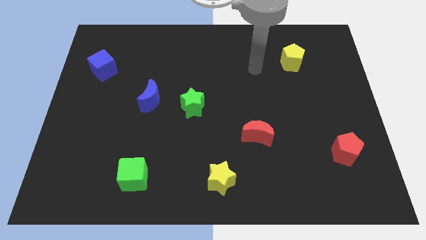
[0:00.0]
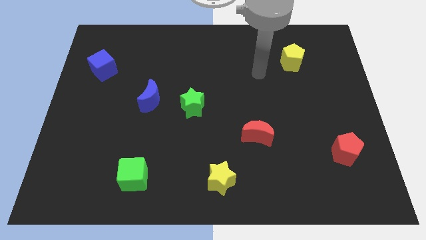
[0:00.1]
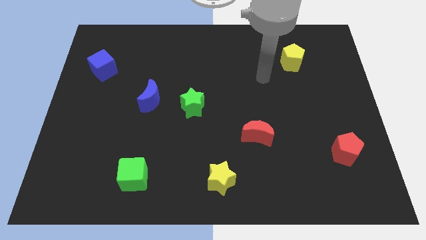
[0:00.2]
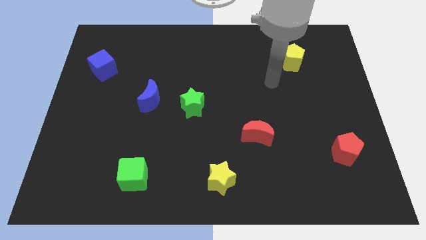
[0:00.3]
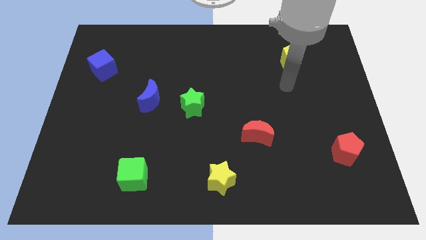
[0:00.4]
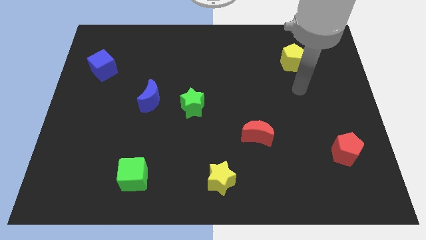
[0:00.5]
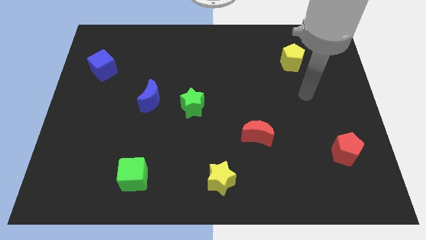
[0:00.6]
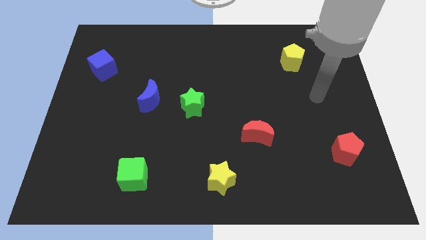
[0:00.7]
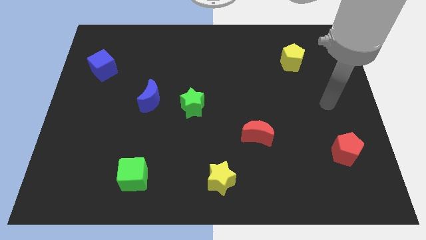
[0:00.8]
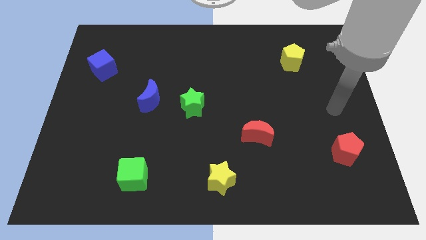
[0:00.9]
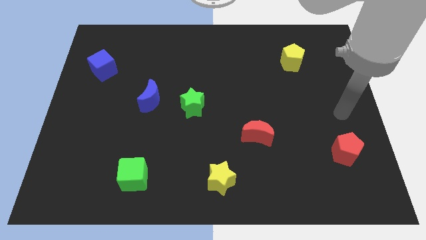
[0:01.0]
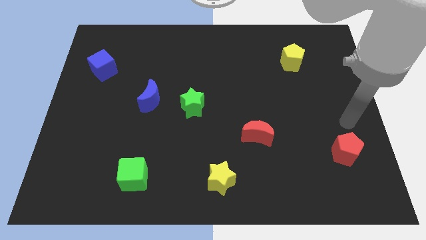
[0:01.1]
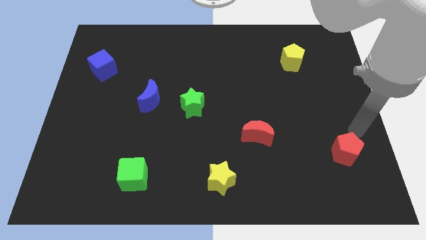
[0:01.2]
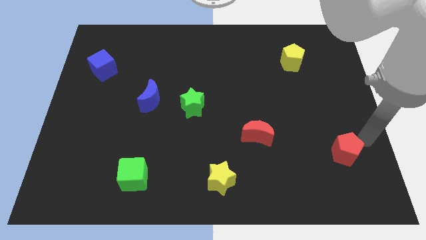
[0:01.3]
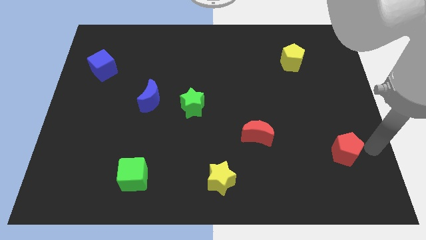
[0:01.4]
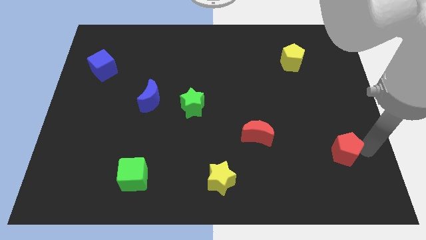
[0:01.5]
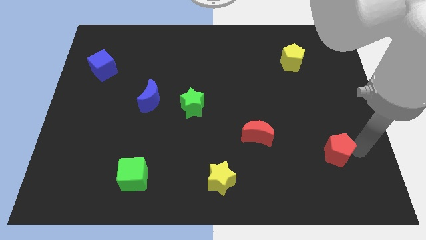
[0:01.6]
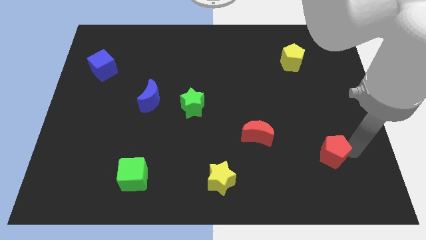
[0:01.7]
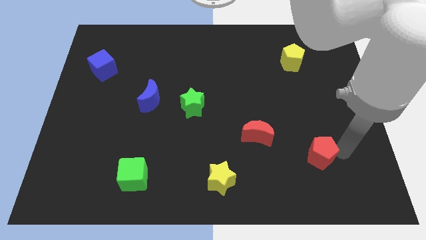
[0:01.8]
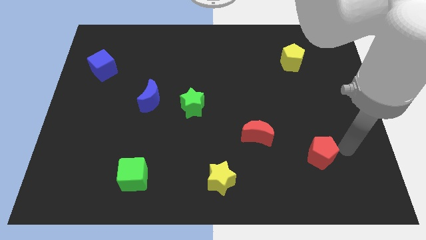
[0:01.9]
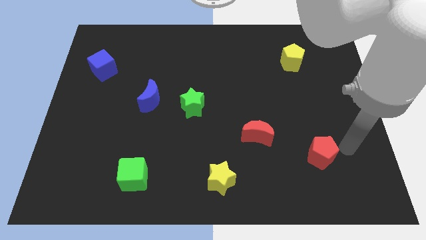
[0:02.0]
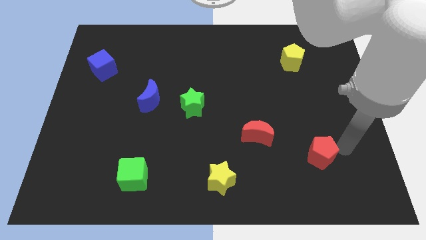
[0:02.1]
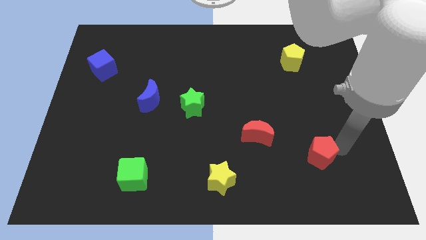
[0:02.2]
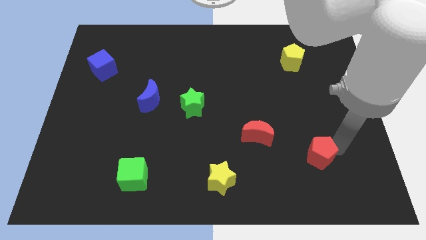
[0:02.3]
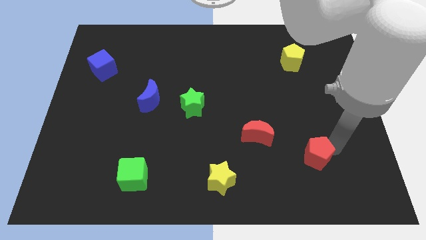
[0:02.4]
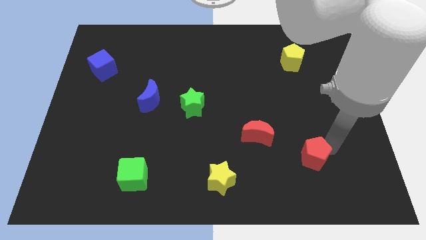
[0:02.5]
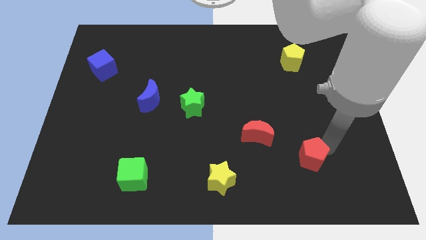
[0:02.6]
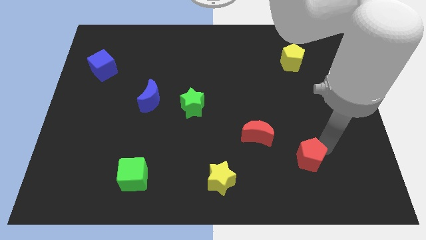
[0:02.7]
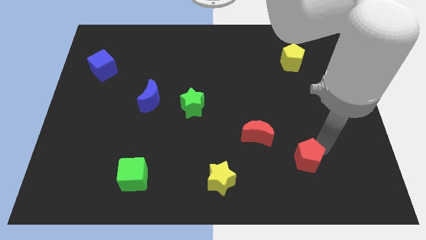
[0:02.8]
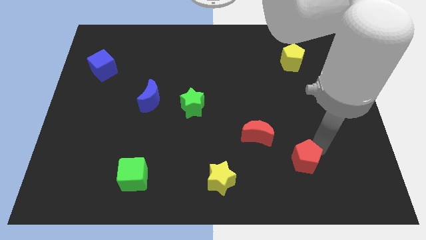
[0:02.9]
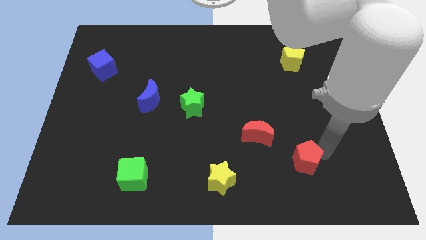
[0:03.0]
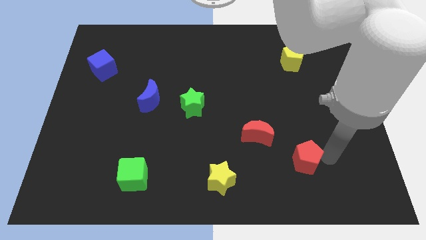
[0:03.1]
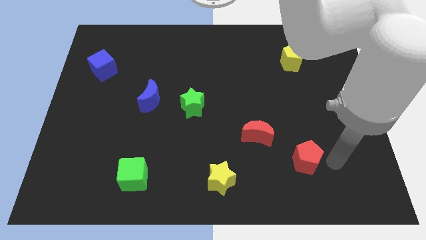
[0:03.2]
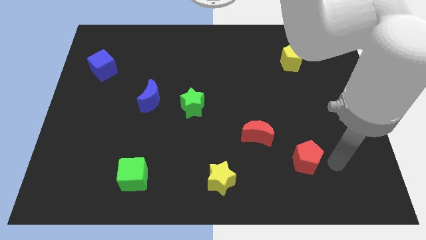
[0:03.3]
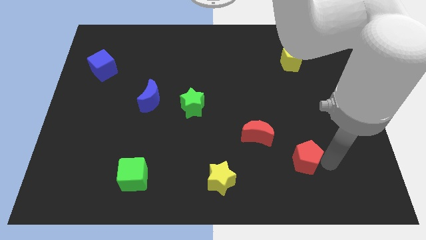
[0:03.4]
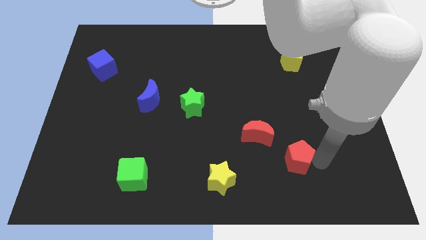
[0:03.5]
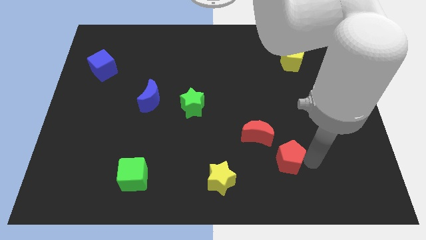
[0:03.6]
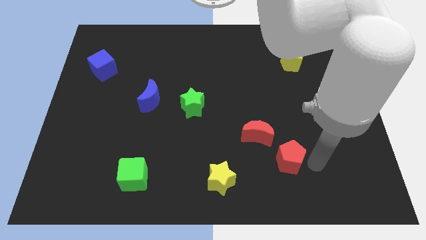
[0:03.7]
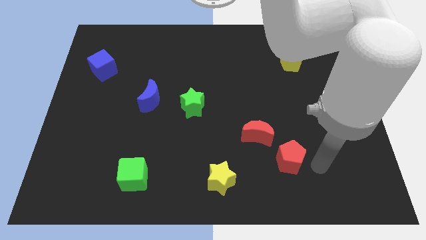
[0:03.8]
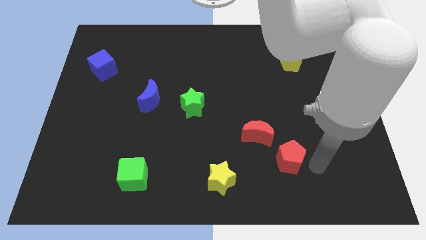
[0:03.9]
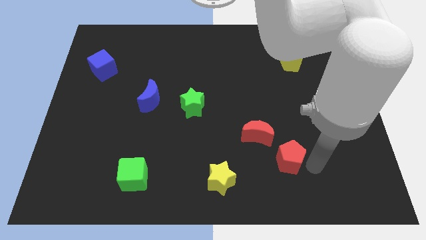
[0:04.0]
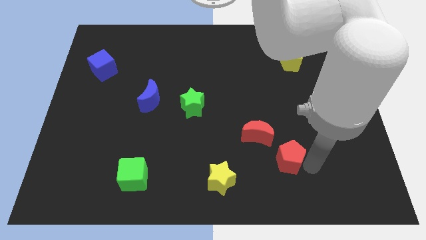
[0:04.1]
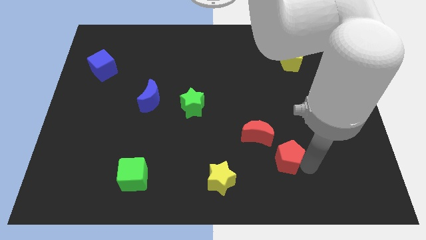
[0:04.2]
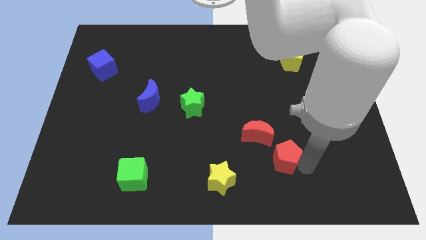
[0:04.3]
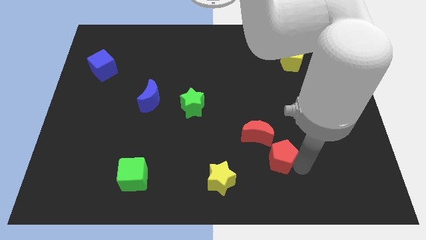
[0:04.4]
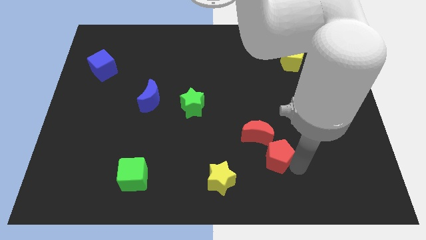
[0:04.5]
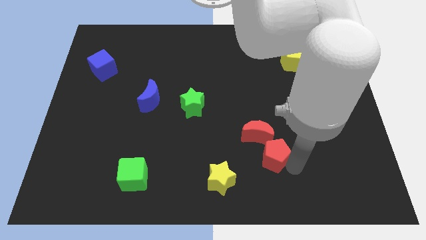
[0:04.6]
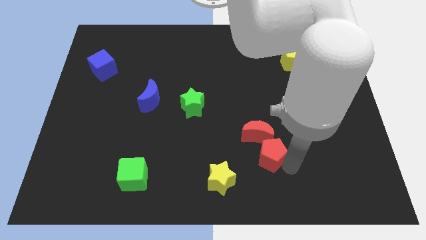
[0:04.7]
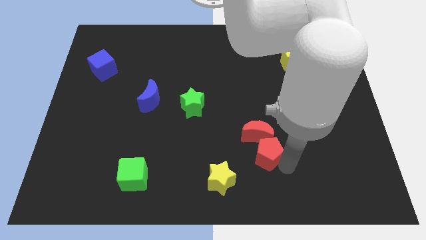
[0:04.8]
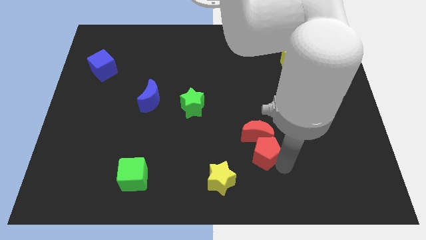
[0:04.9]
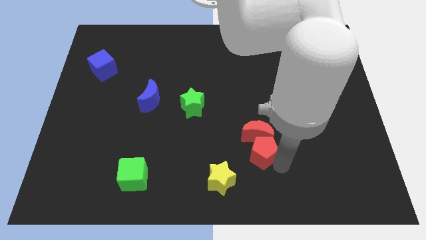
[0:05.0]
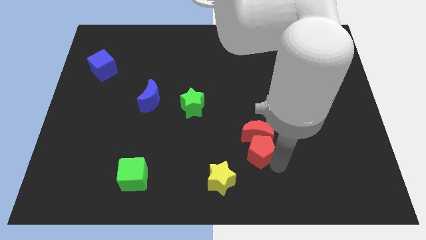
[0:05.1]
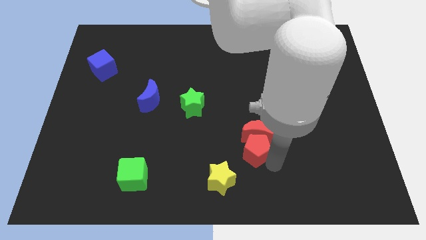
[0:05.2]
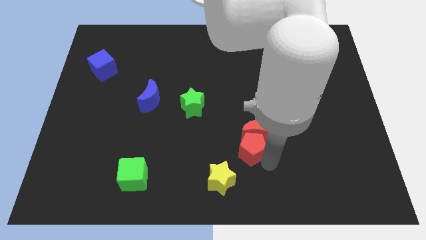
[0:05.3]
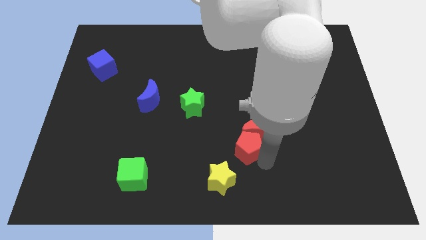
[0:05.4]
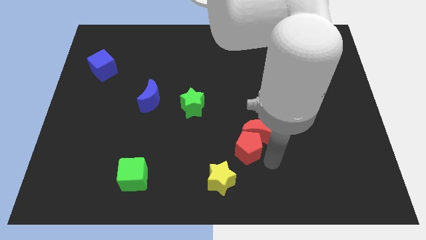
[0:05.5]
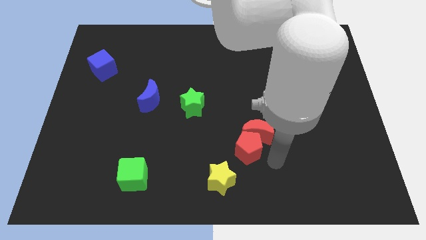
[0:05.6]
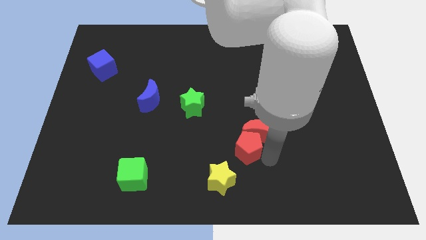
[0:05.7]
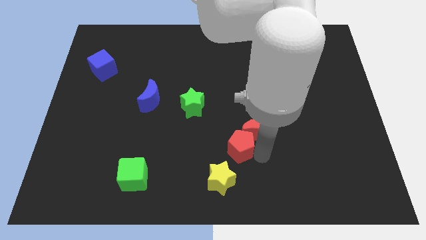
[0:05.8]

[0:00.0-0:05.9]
push the red pentagon above the yellow star

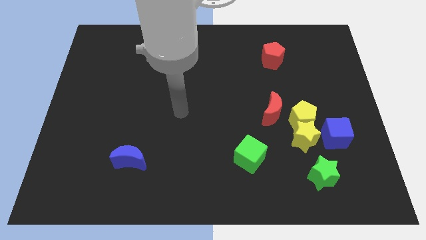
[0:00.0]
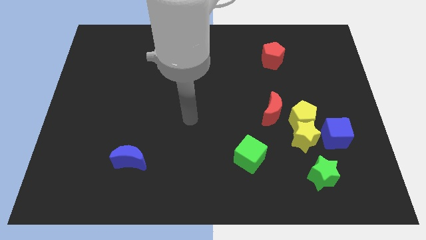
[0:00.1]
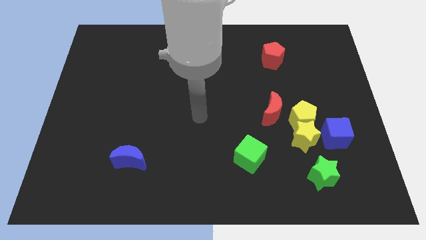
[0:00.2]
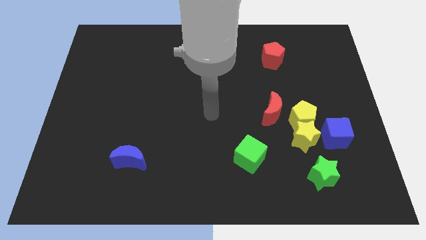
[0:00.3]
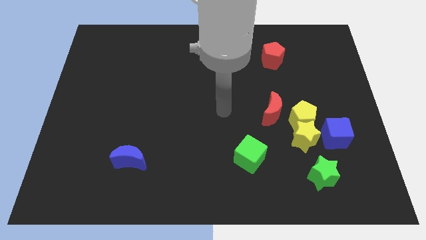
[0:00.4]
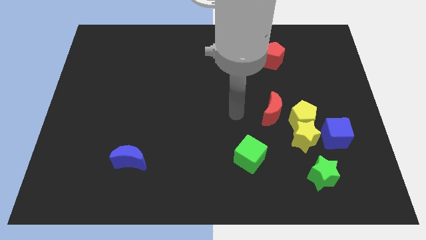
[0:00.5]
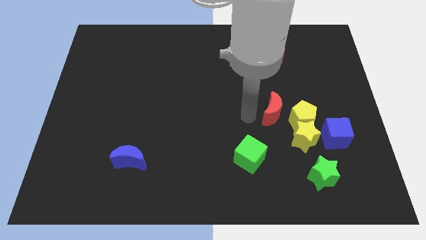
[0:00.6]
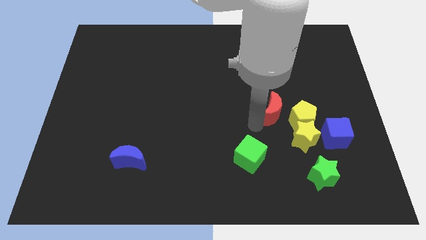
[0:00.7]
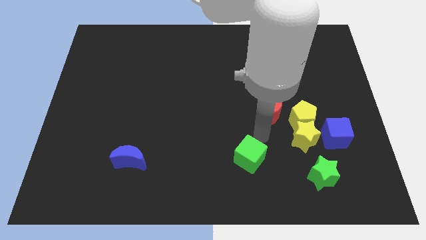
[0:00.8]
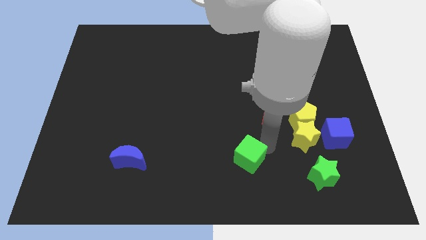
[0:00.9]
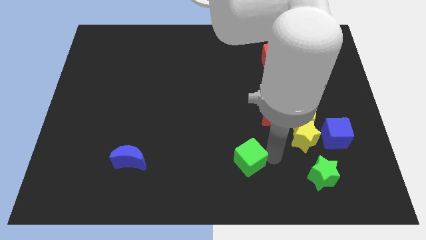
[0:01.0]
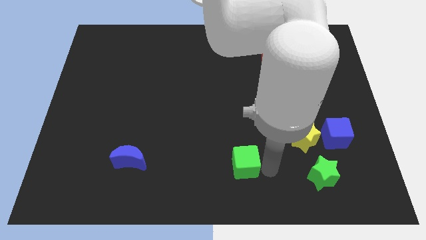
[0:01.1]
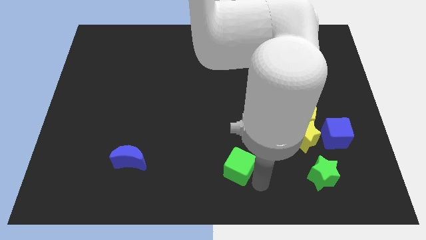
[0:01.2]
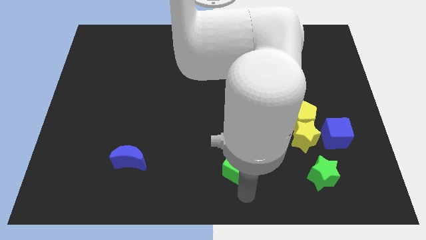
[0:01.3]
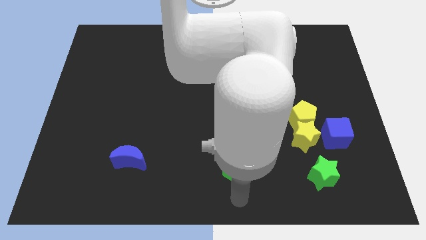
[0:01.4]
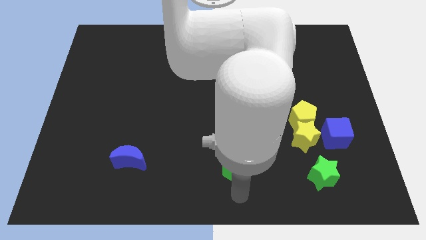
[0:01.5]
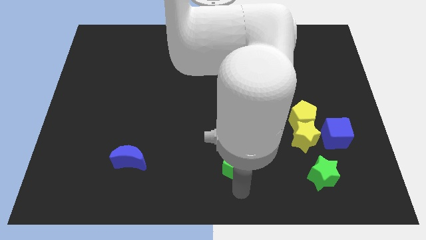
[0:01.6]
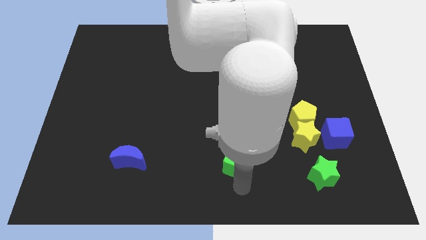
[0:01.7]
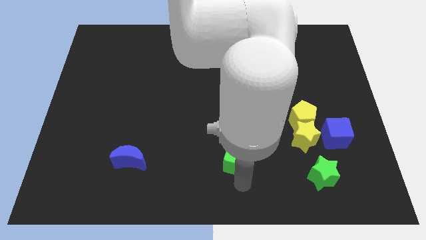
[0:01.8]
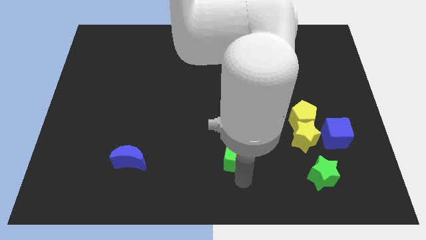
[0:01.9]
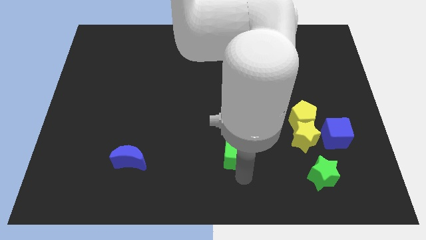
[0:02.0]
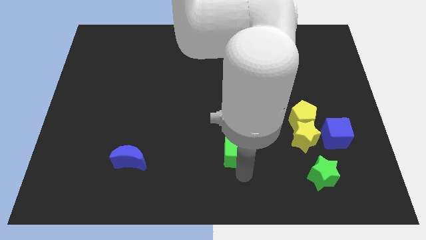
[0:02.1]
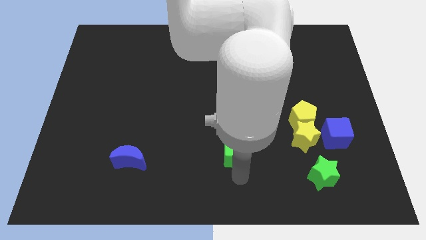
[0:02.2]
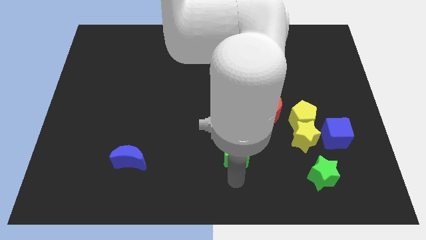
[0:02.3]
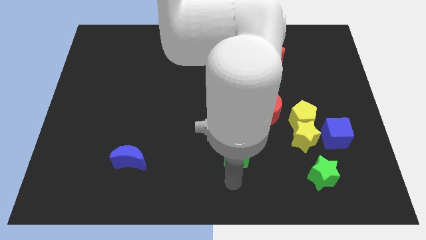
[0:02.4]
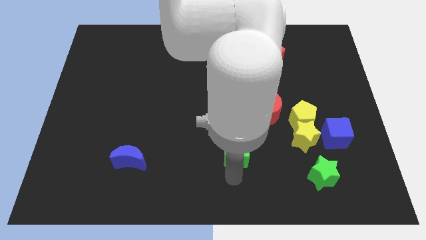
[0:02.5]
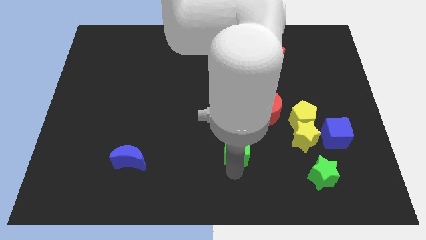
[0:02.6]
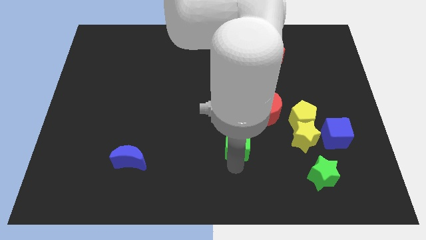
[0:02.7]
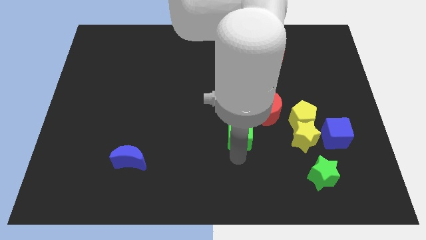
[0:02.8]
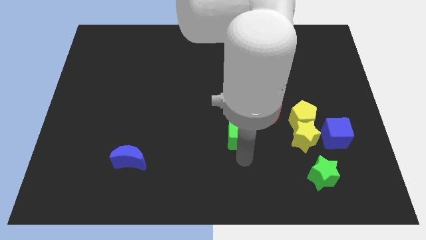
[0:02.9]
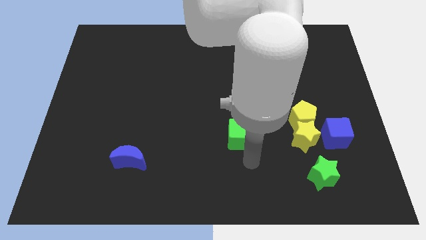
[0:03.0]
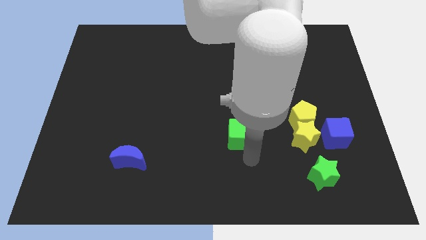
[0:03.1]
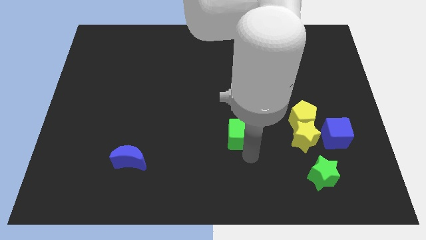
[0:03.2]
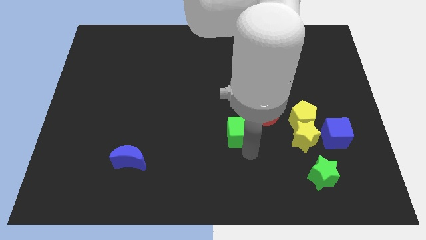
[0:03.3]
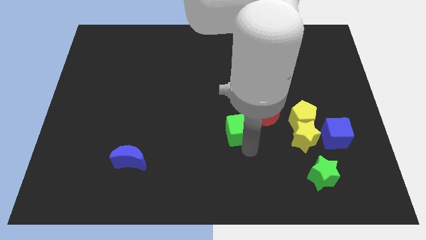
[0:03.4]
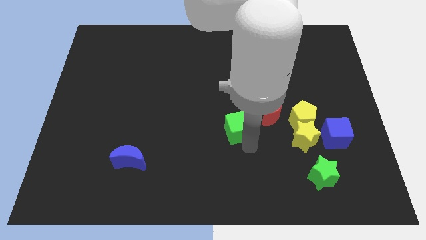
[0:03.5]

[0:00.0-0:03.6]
slide the green cube just left of the red moon
